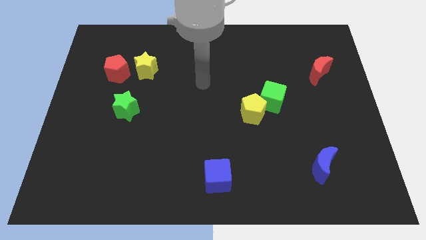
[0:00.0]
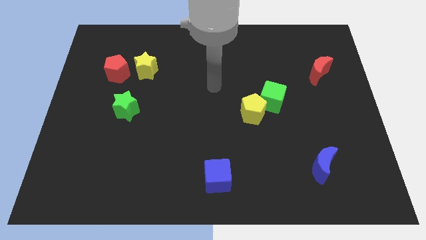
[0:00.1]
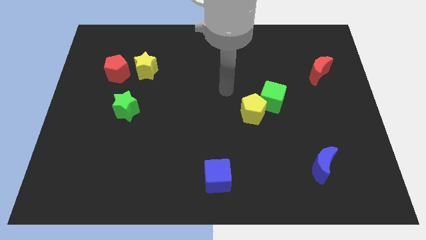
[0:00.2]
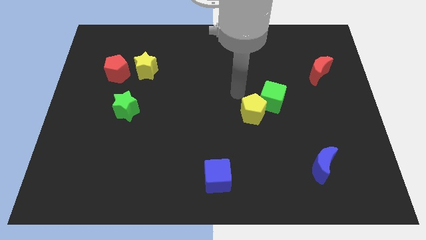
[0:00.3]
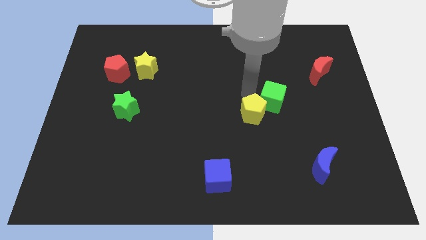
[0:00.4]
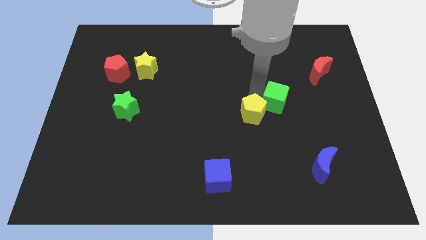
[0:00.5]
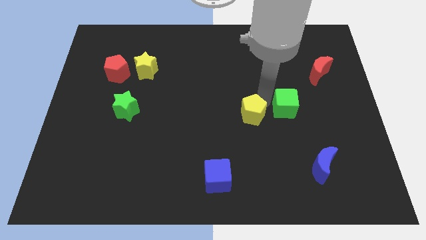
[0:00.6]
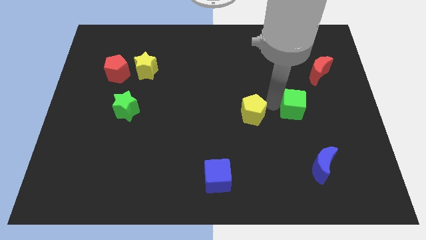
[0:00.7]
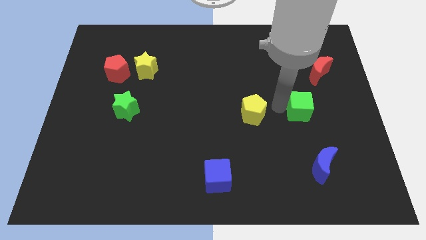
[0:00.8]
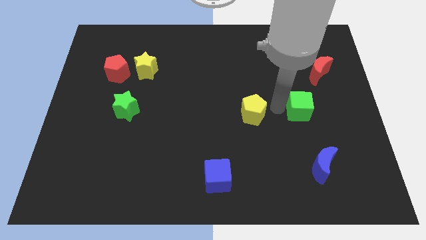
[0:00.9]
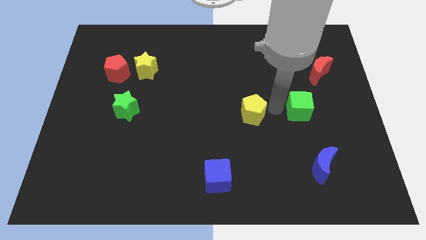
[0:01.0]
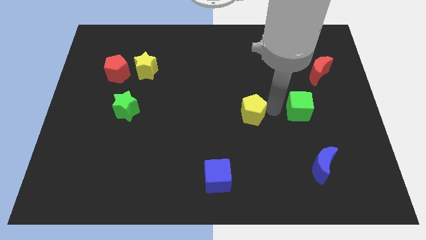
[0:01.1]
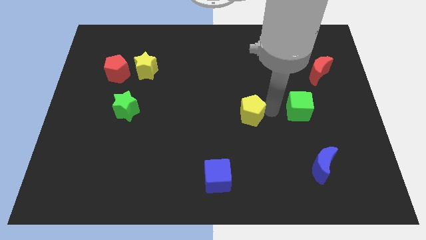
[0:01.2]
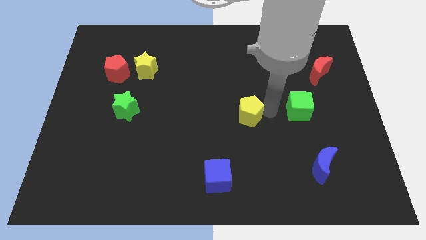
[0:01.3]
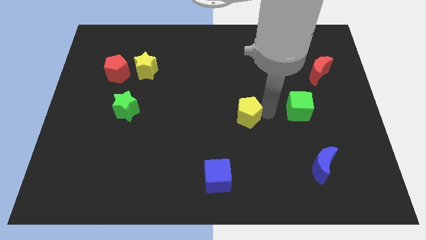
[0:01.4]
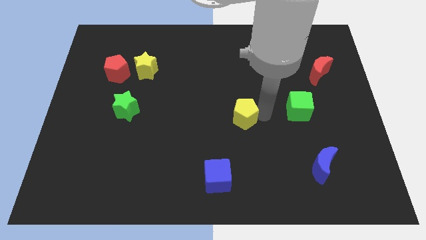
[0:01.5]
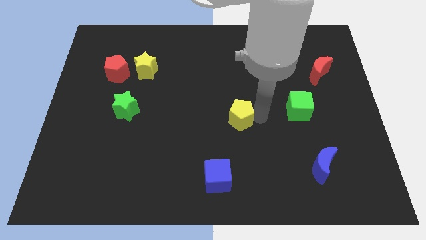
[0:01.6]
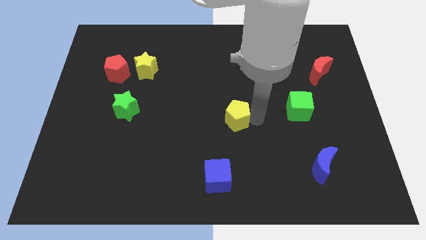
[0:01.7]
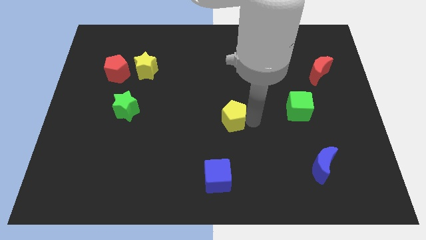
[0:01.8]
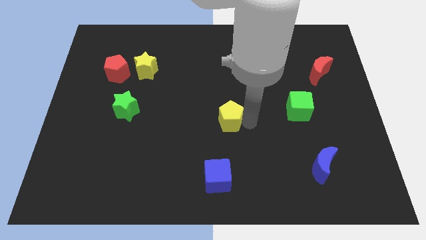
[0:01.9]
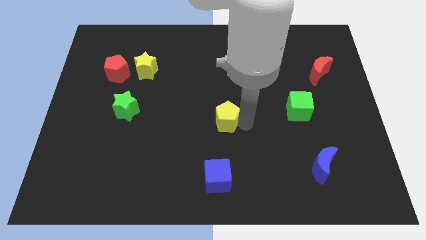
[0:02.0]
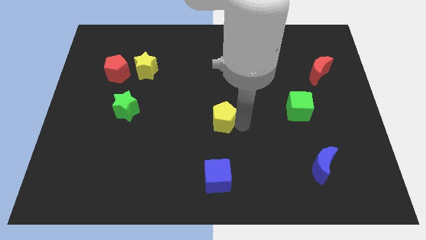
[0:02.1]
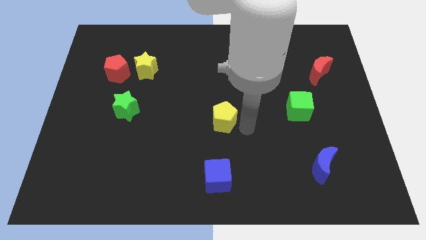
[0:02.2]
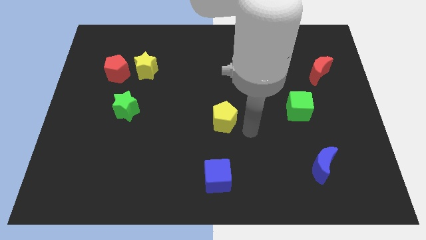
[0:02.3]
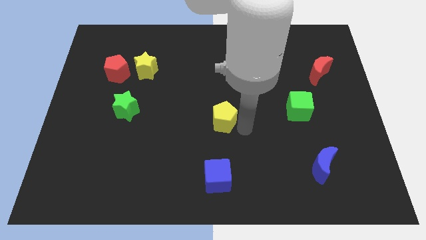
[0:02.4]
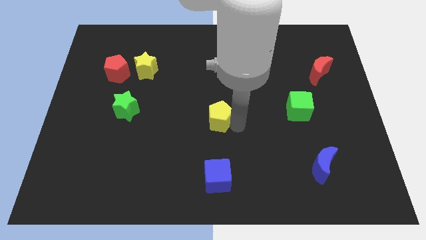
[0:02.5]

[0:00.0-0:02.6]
move the yellow pentagon to the left a little

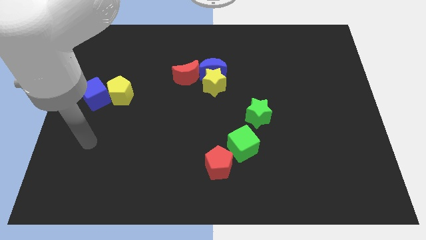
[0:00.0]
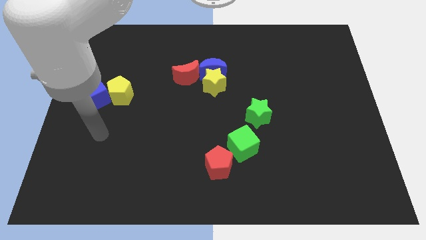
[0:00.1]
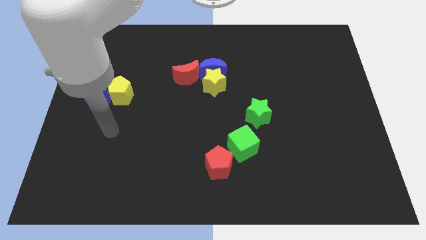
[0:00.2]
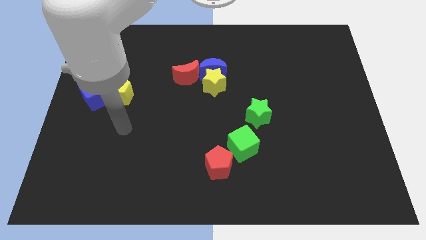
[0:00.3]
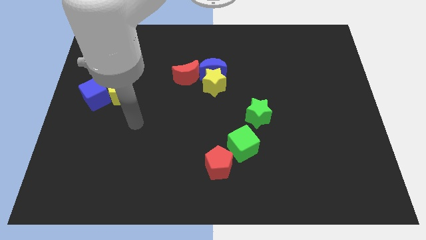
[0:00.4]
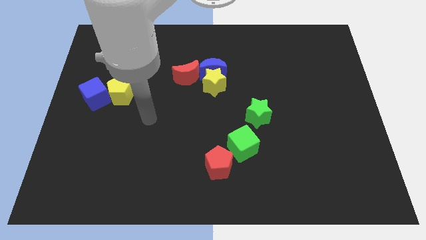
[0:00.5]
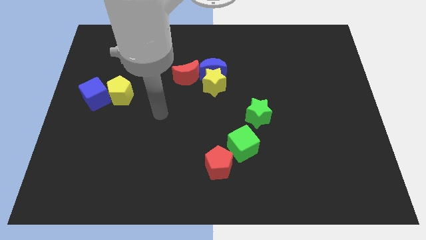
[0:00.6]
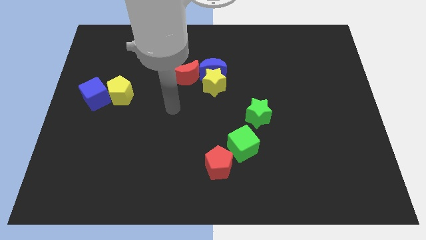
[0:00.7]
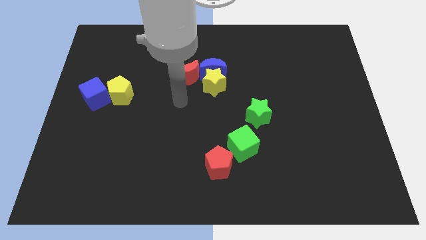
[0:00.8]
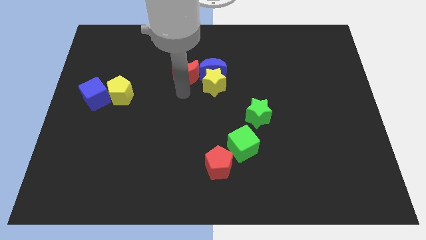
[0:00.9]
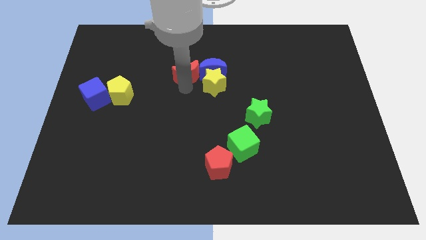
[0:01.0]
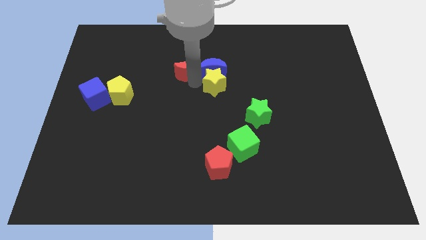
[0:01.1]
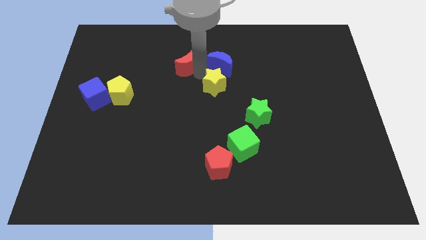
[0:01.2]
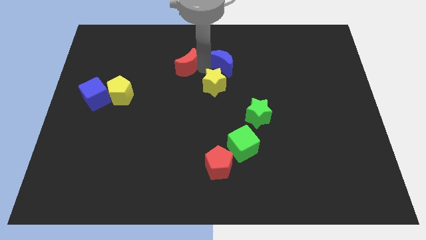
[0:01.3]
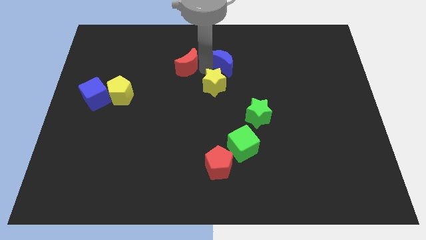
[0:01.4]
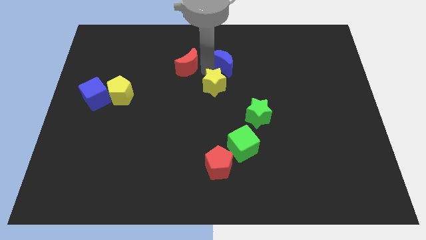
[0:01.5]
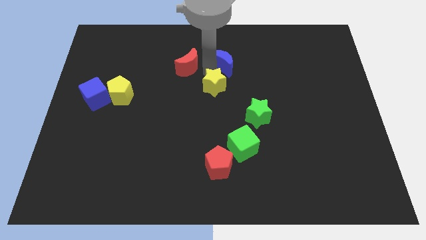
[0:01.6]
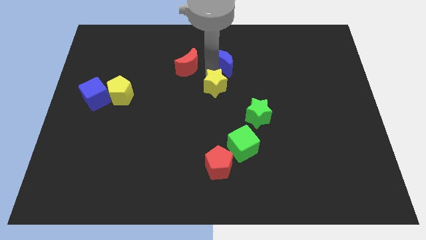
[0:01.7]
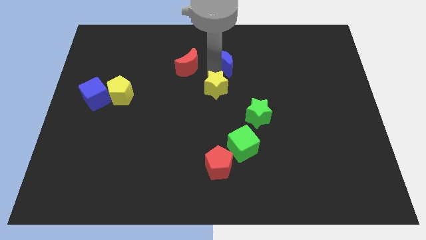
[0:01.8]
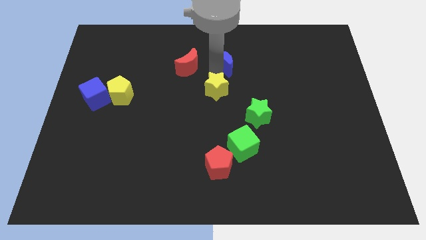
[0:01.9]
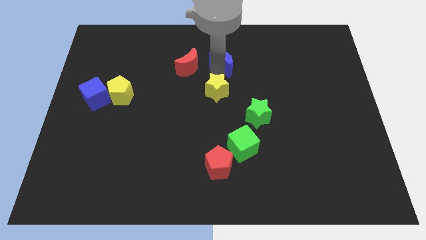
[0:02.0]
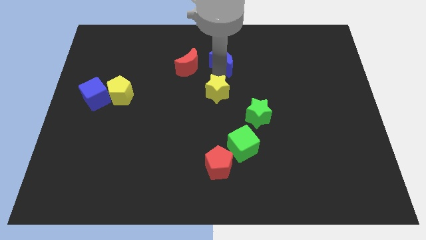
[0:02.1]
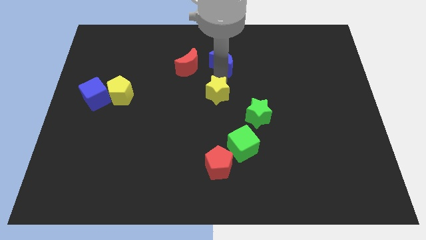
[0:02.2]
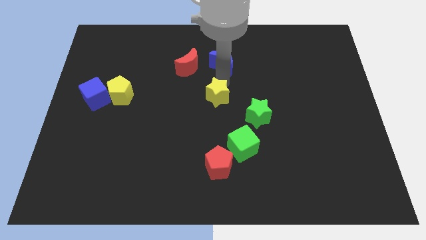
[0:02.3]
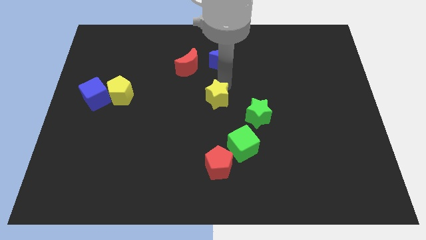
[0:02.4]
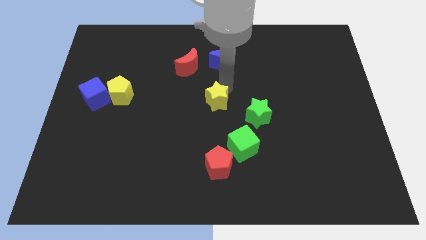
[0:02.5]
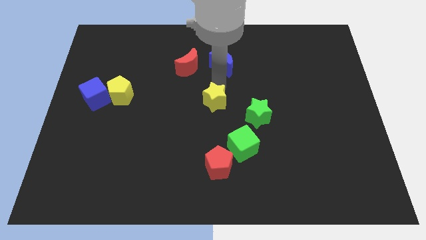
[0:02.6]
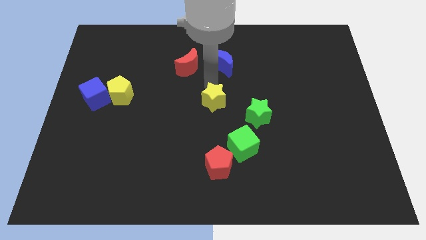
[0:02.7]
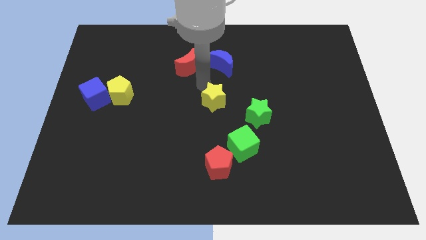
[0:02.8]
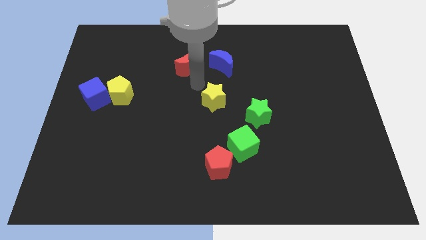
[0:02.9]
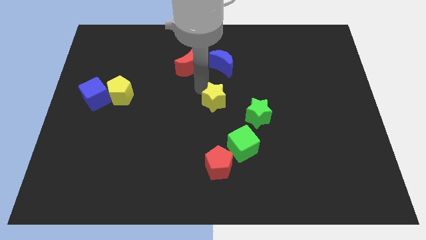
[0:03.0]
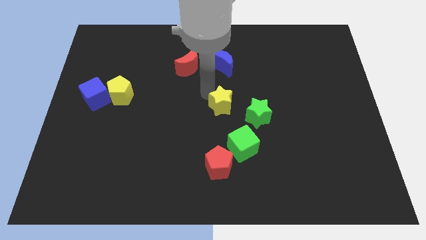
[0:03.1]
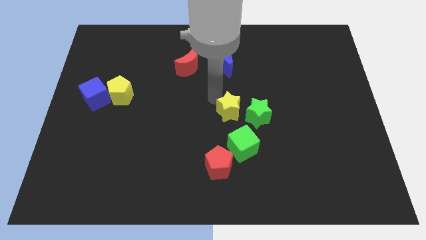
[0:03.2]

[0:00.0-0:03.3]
move the yellow star a bit down and to the right

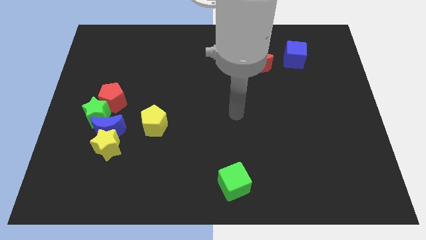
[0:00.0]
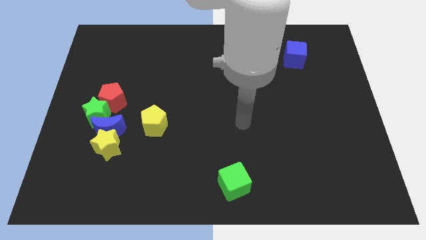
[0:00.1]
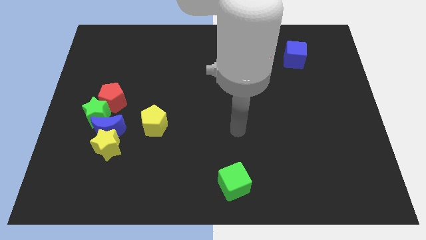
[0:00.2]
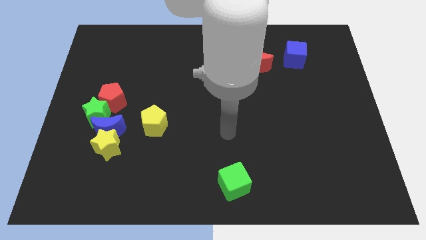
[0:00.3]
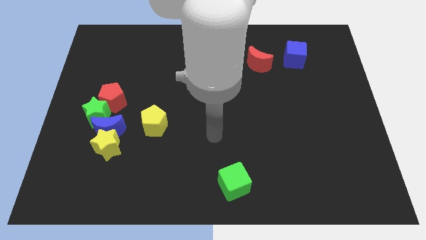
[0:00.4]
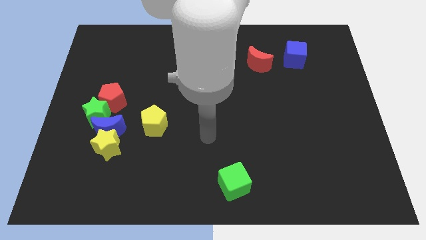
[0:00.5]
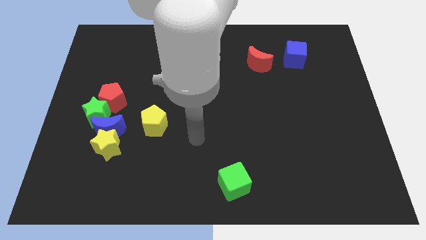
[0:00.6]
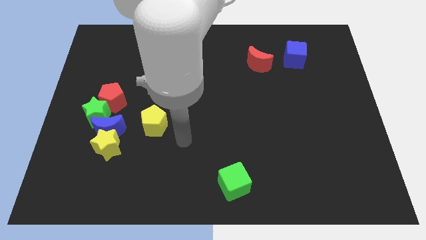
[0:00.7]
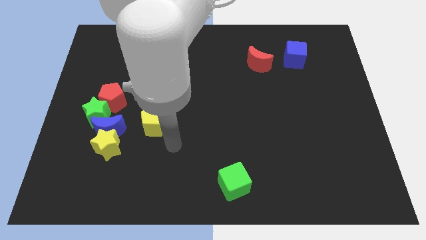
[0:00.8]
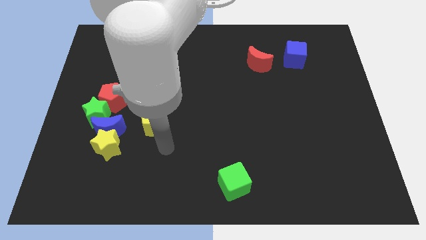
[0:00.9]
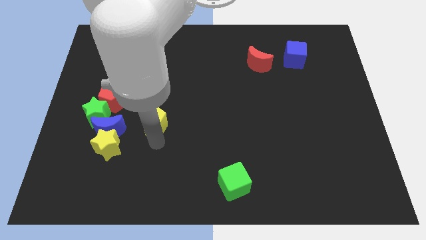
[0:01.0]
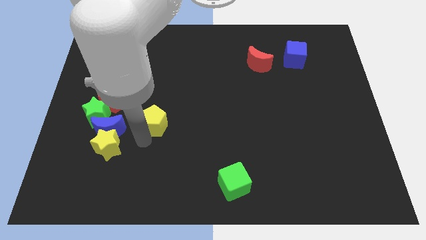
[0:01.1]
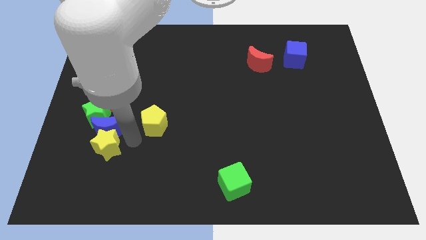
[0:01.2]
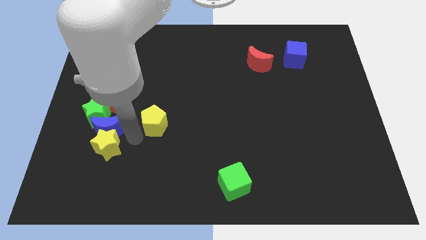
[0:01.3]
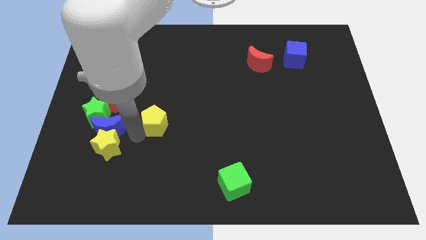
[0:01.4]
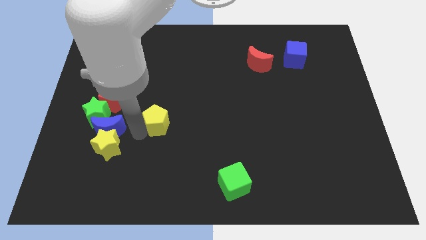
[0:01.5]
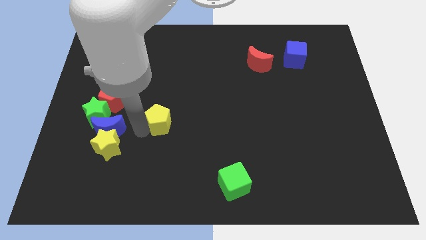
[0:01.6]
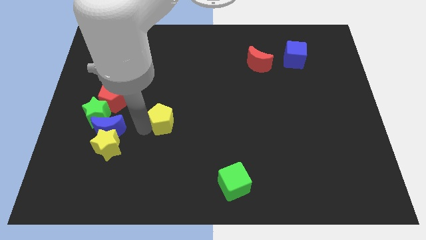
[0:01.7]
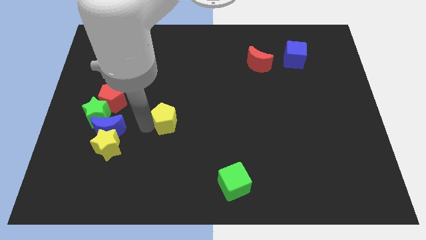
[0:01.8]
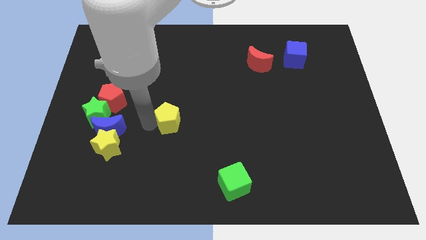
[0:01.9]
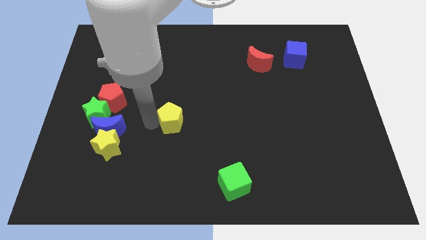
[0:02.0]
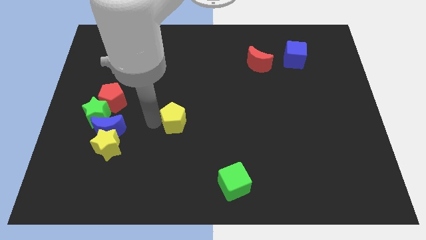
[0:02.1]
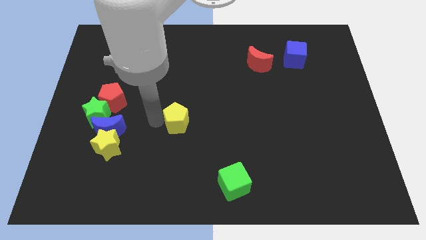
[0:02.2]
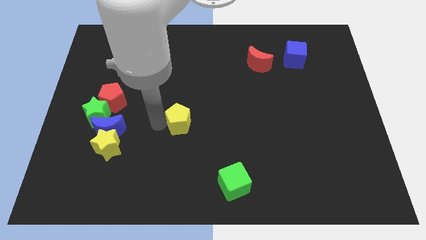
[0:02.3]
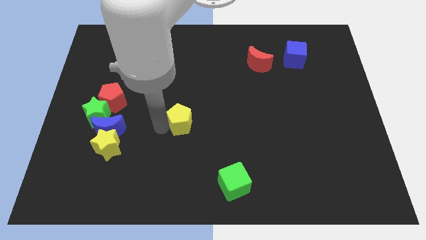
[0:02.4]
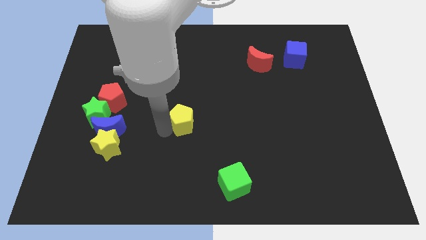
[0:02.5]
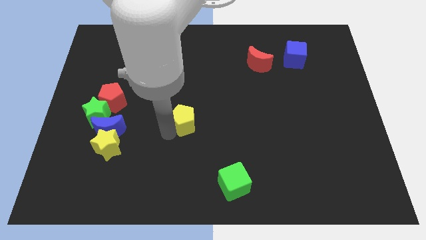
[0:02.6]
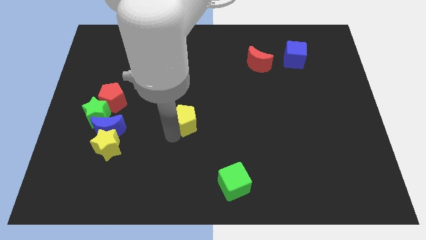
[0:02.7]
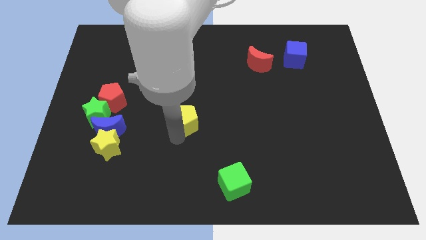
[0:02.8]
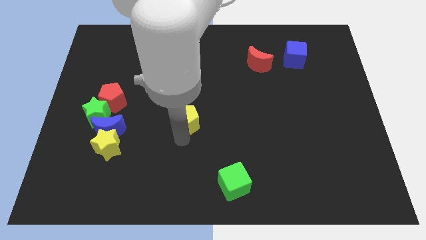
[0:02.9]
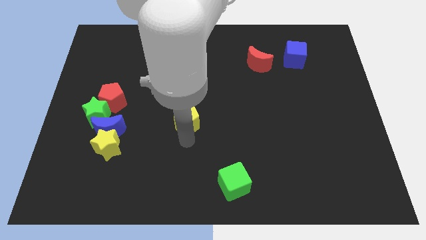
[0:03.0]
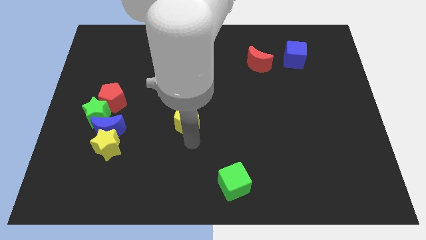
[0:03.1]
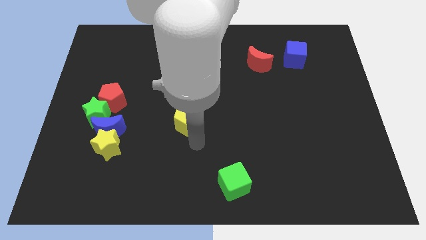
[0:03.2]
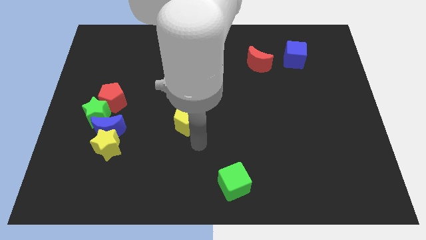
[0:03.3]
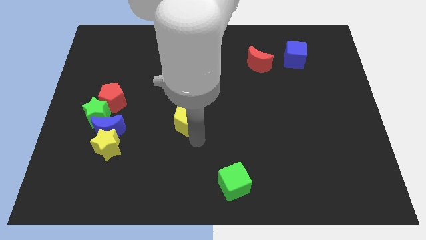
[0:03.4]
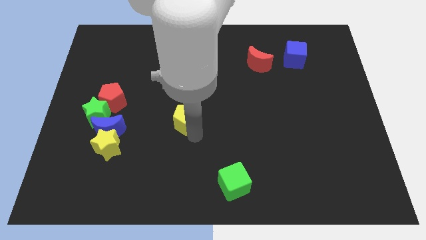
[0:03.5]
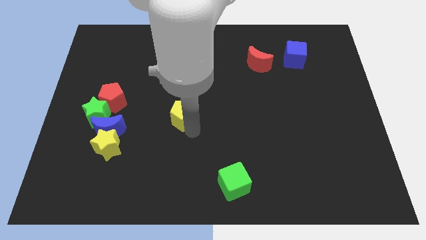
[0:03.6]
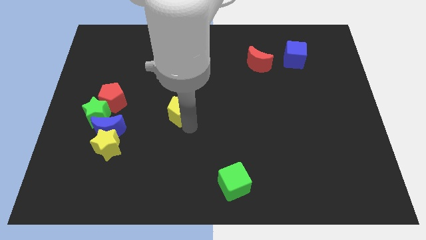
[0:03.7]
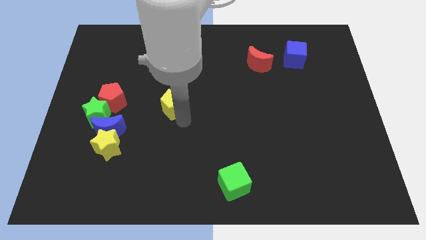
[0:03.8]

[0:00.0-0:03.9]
push the yellow pentagon a bit upwards and right
